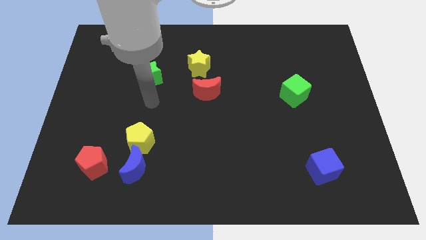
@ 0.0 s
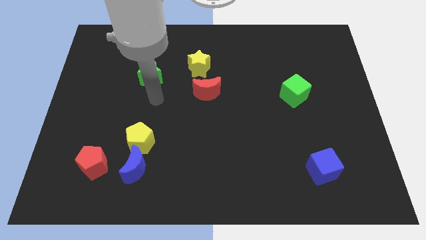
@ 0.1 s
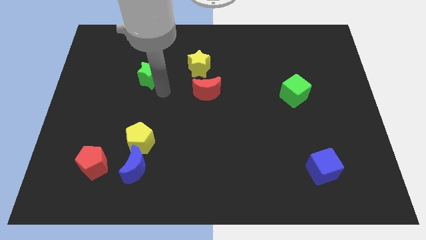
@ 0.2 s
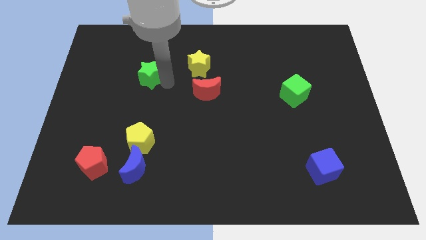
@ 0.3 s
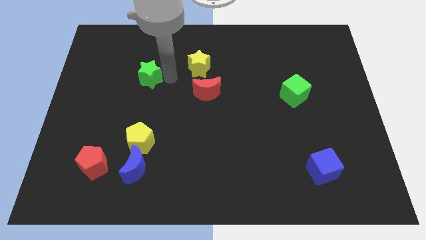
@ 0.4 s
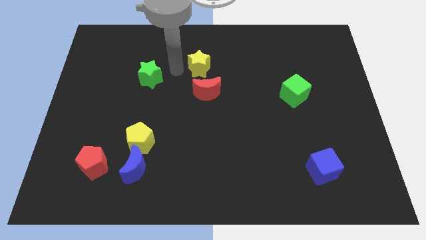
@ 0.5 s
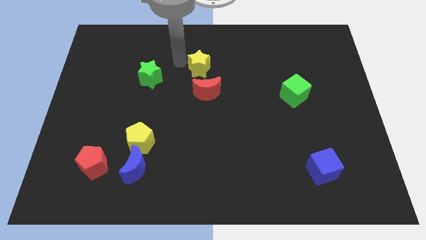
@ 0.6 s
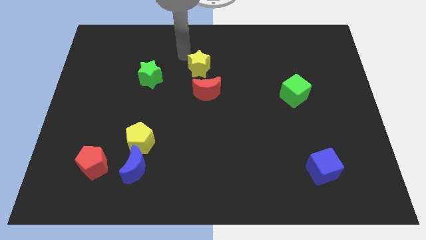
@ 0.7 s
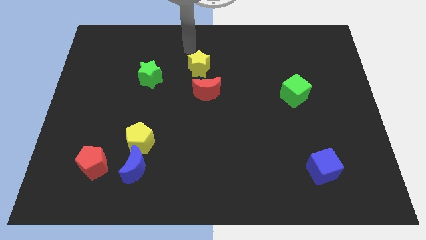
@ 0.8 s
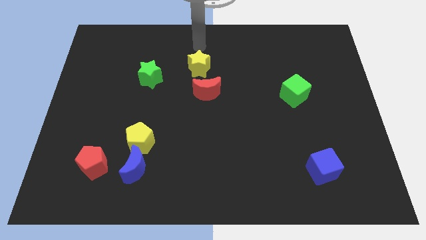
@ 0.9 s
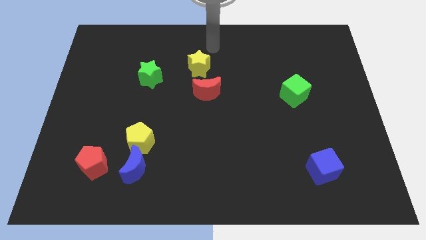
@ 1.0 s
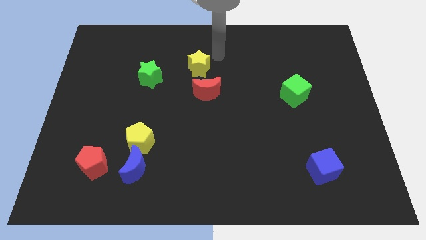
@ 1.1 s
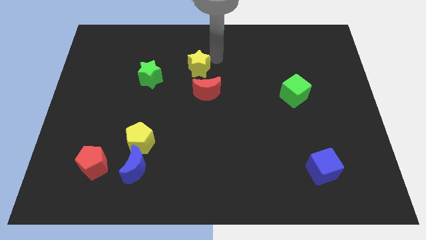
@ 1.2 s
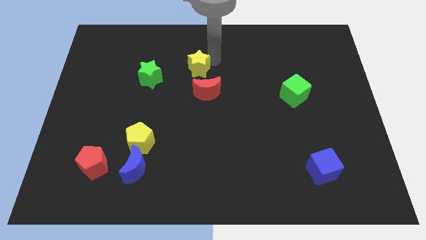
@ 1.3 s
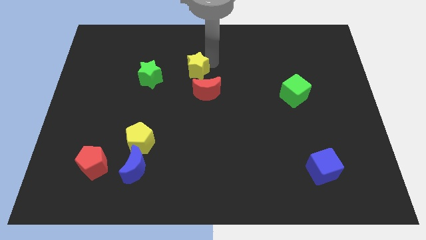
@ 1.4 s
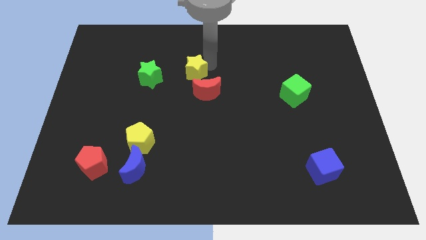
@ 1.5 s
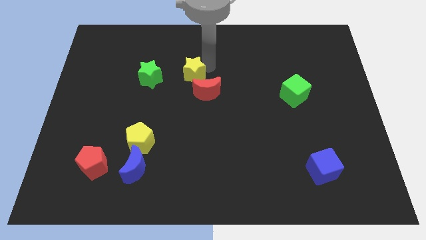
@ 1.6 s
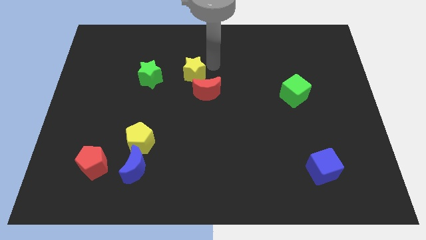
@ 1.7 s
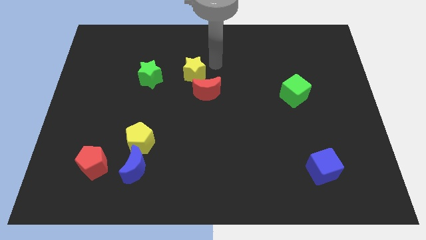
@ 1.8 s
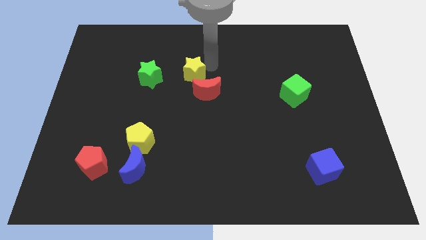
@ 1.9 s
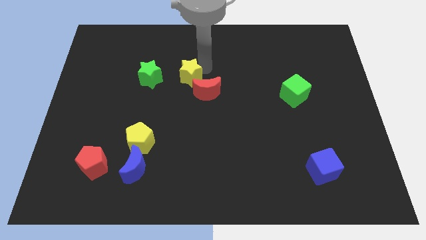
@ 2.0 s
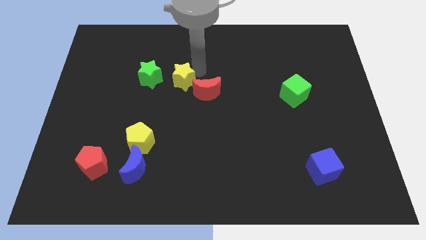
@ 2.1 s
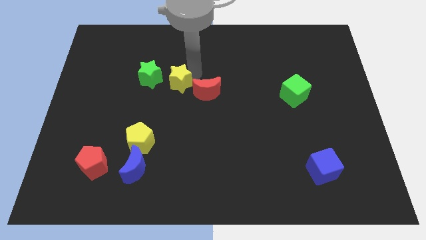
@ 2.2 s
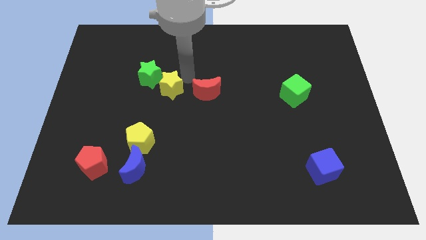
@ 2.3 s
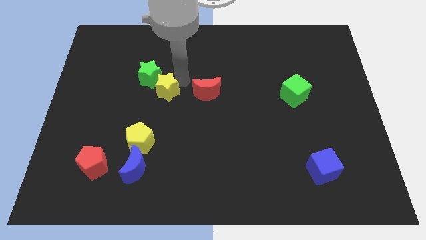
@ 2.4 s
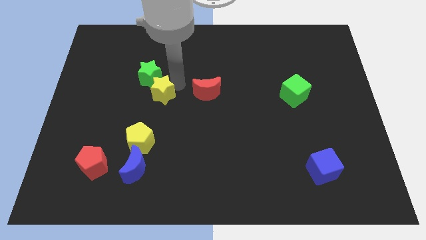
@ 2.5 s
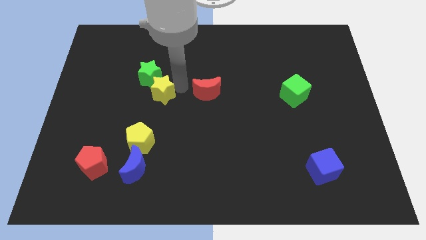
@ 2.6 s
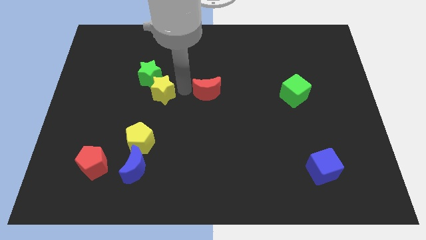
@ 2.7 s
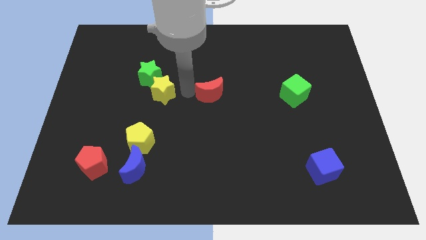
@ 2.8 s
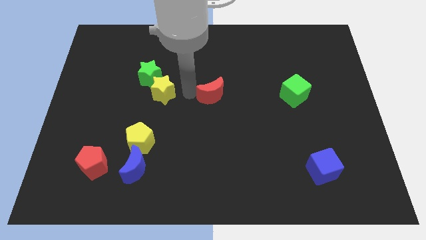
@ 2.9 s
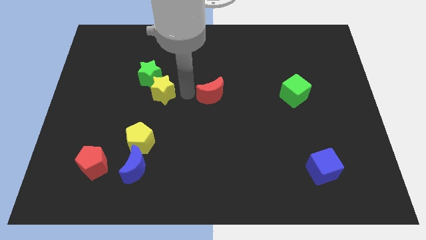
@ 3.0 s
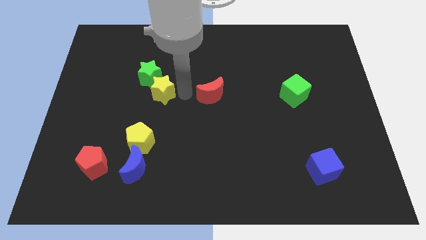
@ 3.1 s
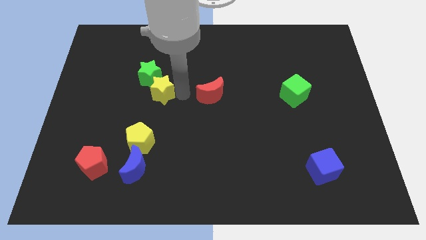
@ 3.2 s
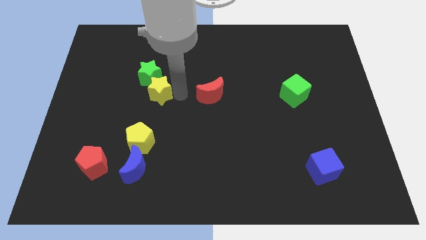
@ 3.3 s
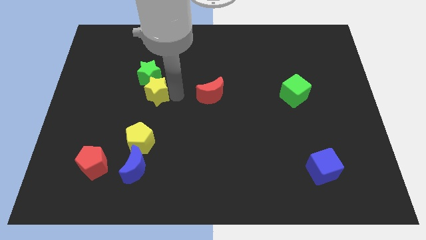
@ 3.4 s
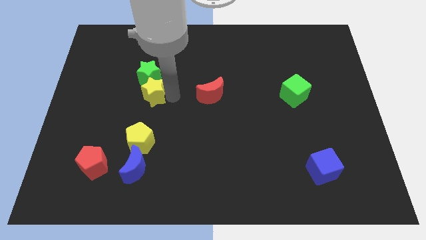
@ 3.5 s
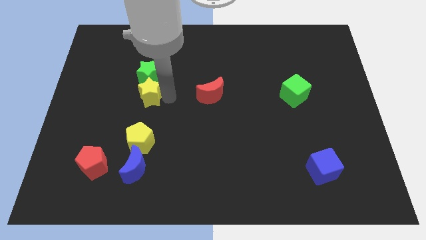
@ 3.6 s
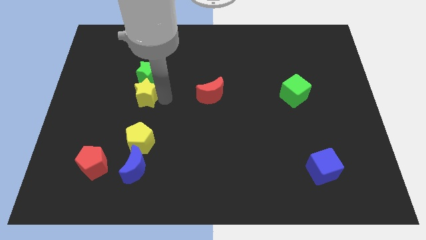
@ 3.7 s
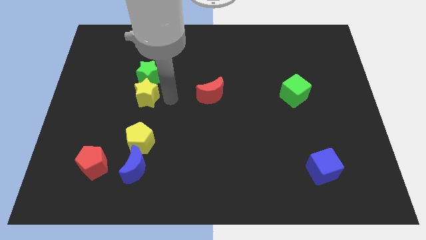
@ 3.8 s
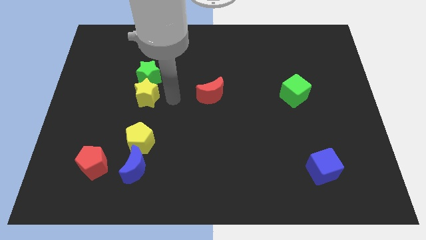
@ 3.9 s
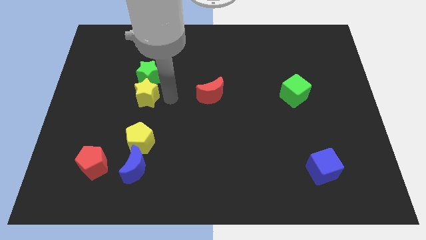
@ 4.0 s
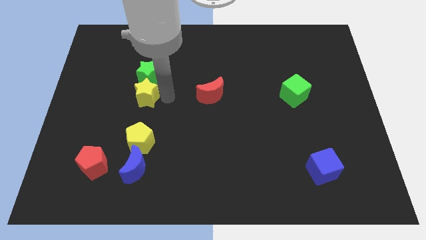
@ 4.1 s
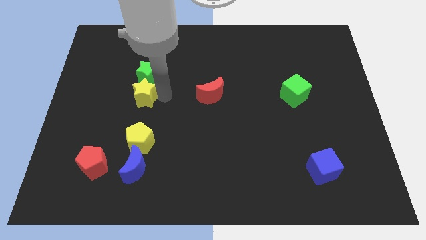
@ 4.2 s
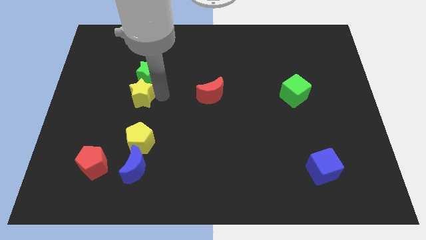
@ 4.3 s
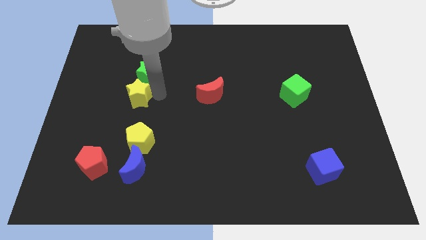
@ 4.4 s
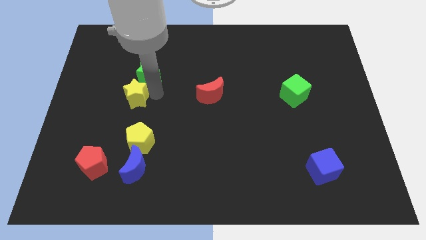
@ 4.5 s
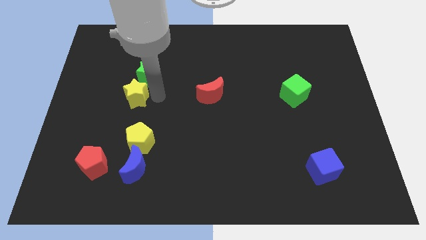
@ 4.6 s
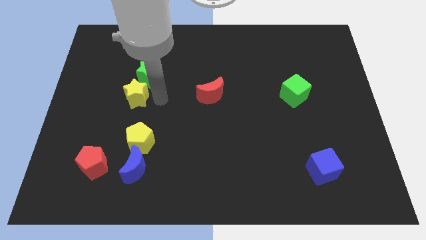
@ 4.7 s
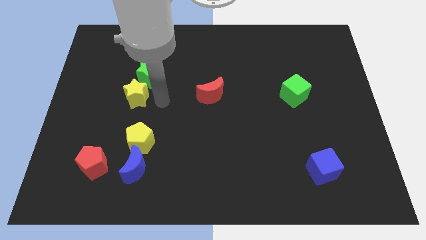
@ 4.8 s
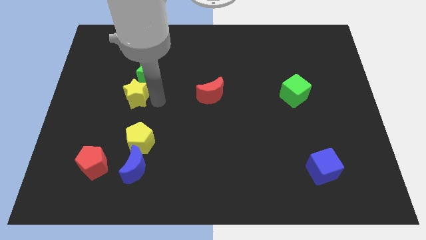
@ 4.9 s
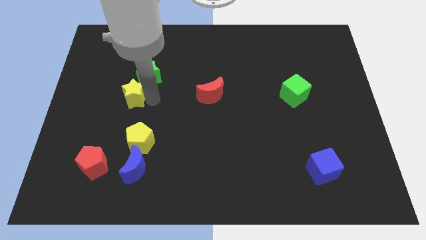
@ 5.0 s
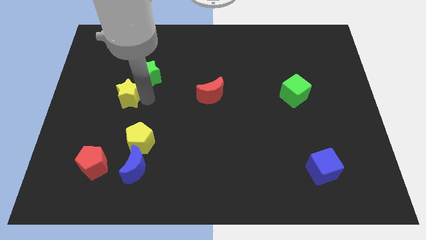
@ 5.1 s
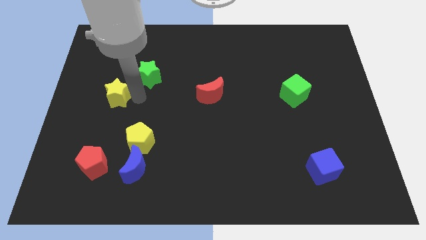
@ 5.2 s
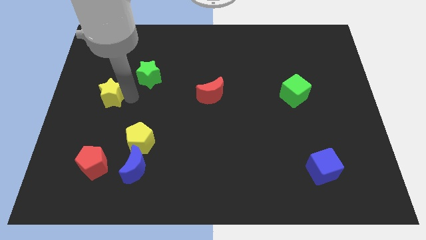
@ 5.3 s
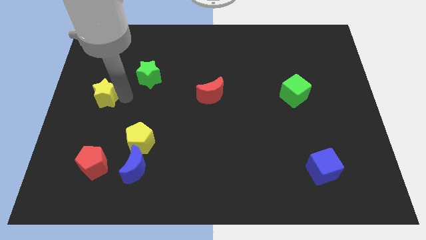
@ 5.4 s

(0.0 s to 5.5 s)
move the yellow star to the center left

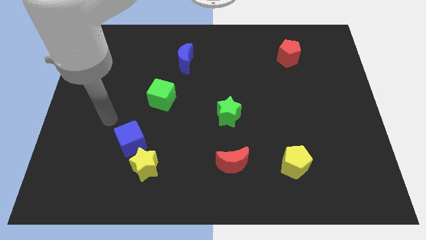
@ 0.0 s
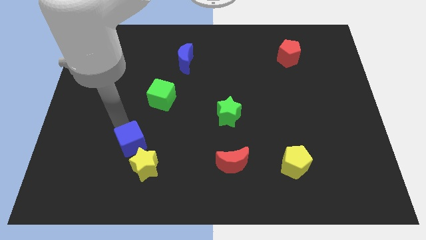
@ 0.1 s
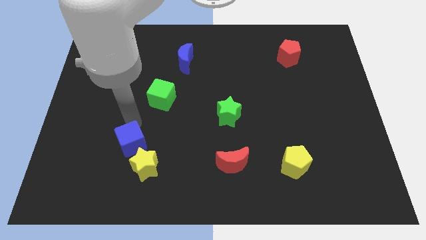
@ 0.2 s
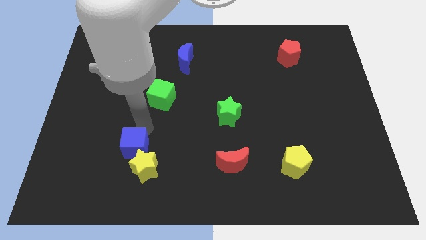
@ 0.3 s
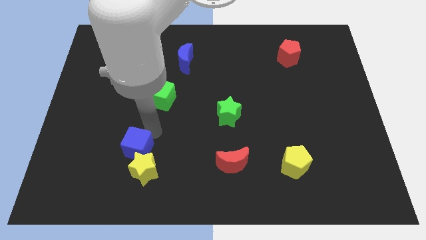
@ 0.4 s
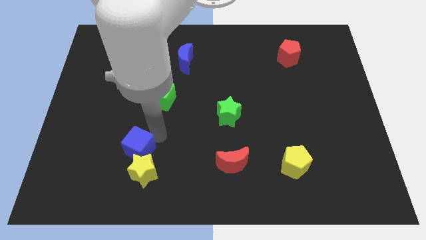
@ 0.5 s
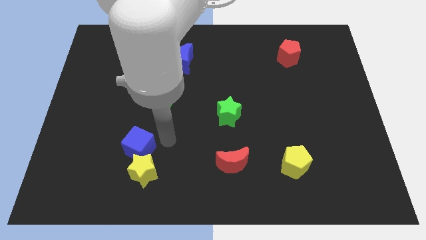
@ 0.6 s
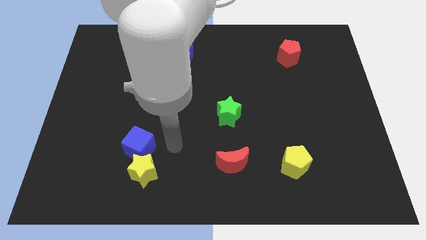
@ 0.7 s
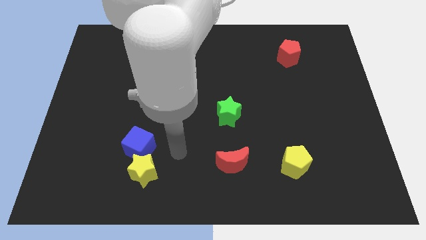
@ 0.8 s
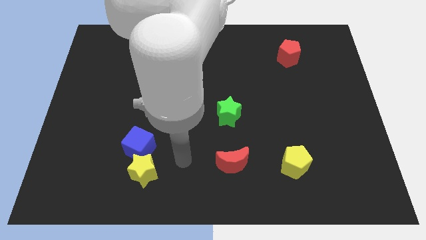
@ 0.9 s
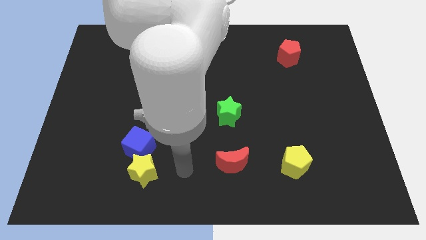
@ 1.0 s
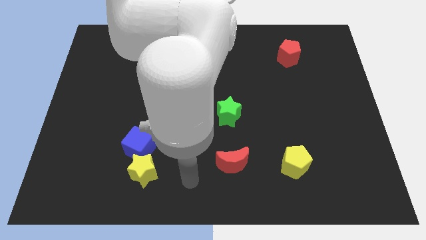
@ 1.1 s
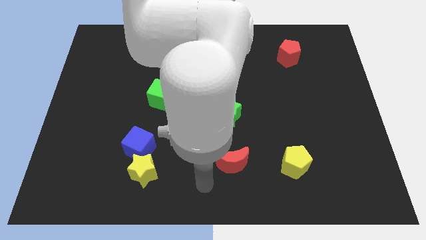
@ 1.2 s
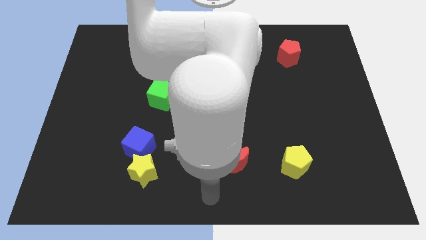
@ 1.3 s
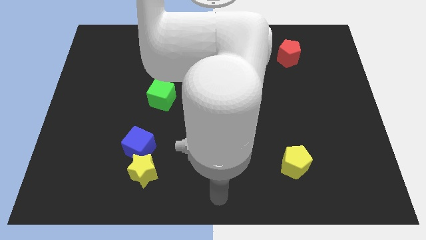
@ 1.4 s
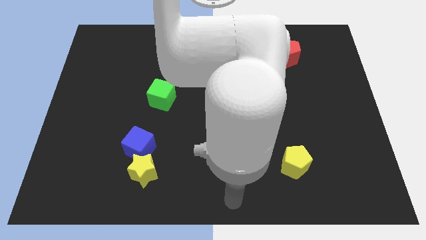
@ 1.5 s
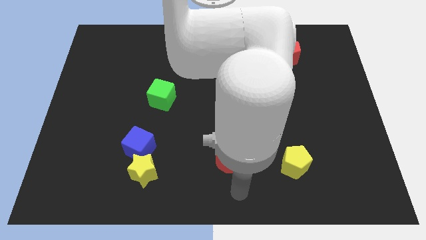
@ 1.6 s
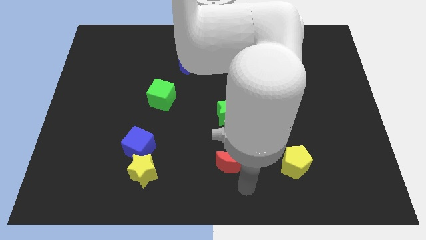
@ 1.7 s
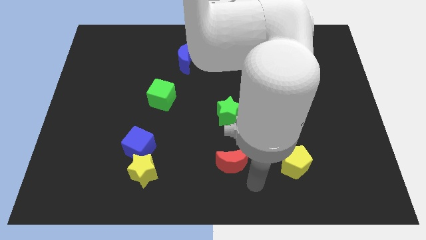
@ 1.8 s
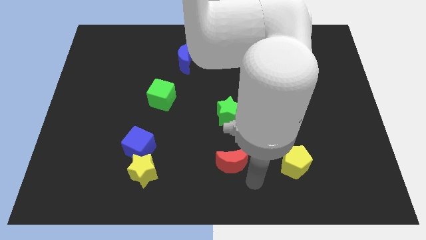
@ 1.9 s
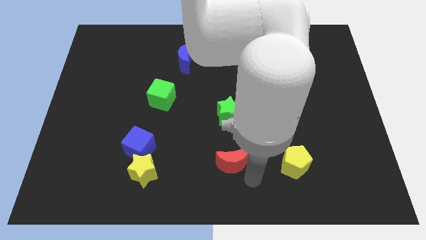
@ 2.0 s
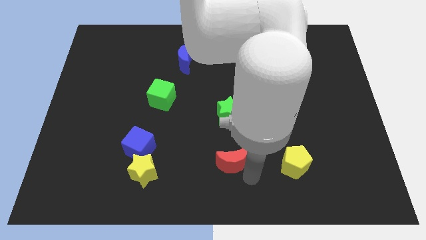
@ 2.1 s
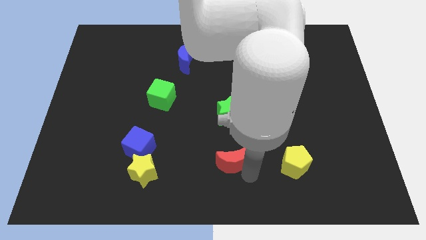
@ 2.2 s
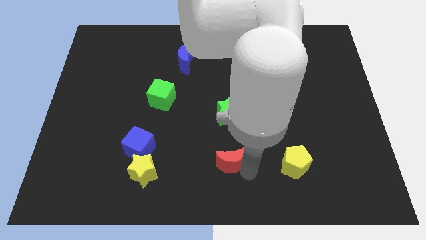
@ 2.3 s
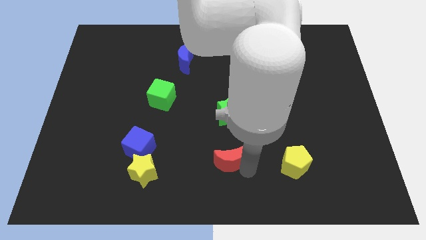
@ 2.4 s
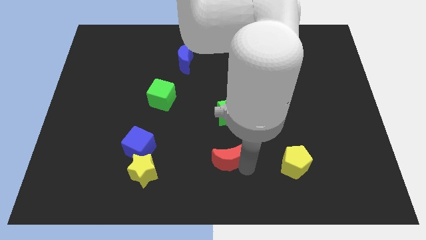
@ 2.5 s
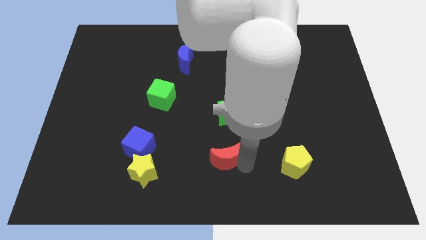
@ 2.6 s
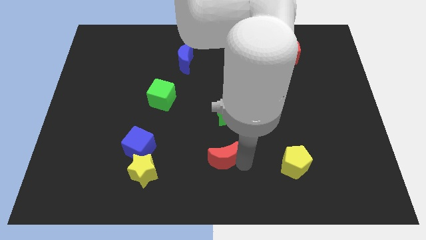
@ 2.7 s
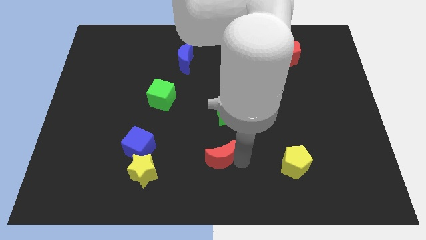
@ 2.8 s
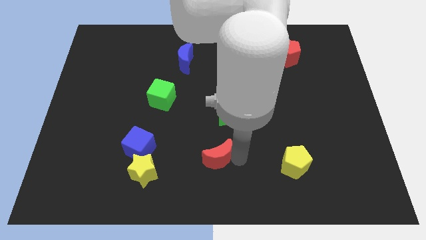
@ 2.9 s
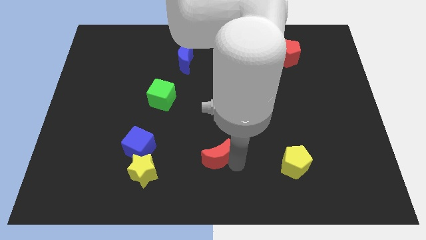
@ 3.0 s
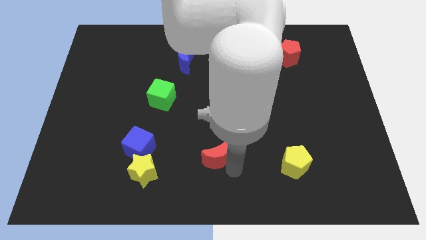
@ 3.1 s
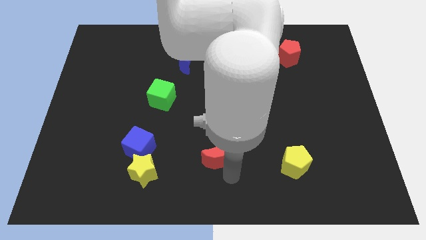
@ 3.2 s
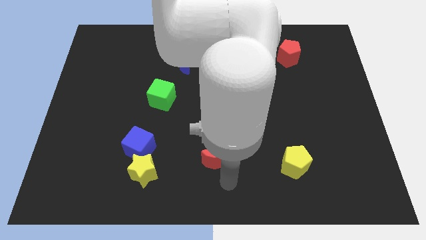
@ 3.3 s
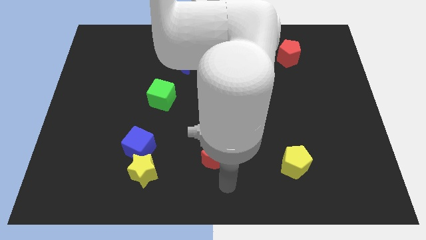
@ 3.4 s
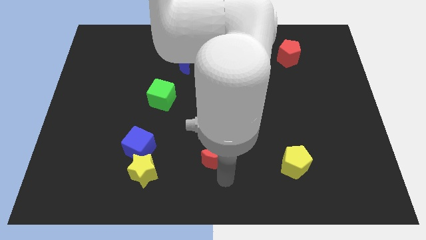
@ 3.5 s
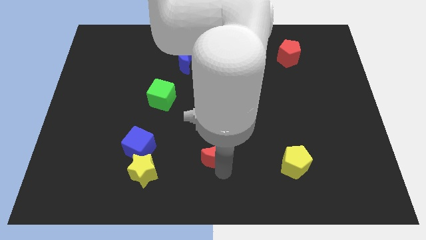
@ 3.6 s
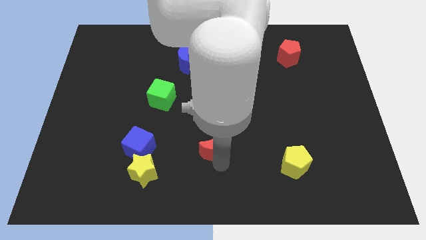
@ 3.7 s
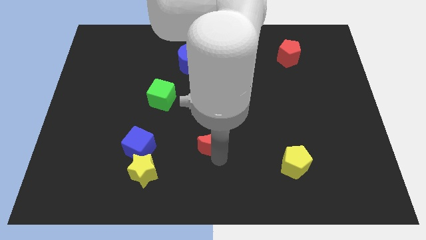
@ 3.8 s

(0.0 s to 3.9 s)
move the red moon to the center of the board
